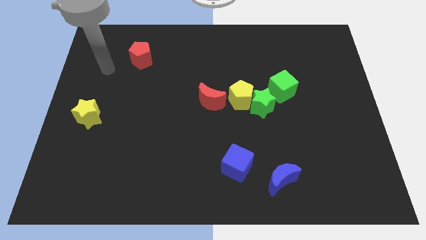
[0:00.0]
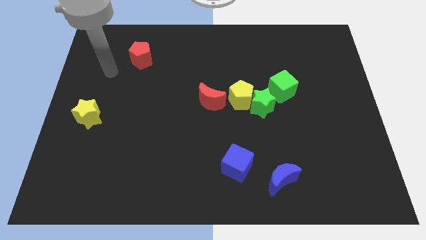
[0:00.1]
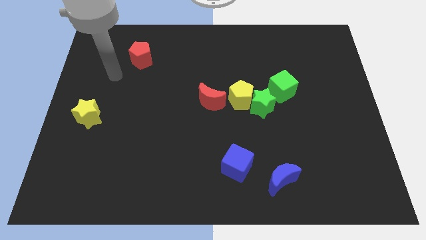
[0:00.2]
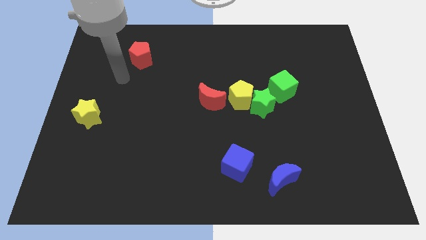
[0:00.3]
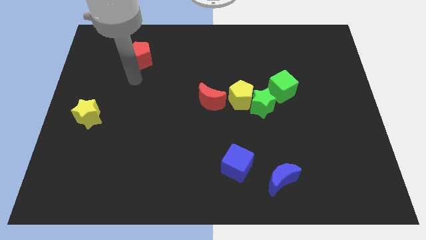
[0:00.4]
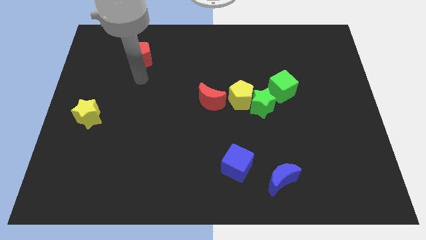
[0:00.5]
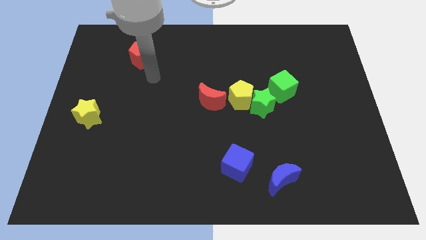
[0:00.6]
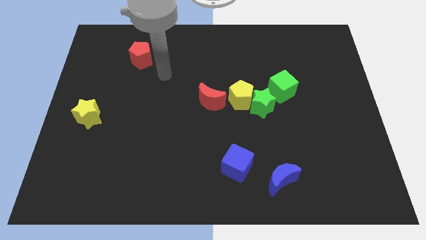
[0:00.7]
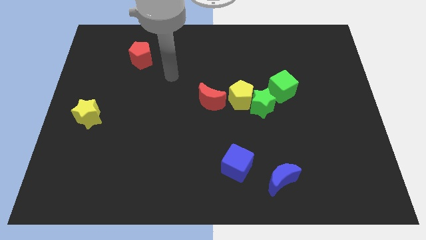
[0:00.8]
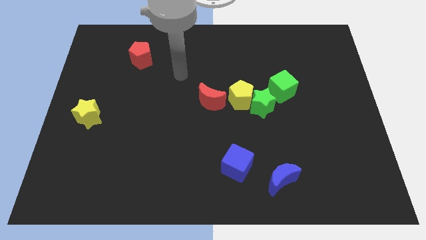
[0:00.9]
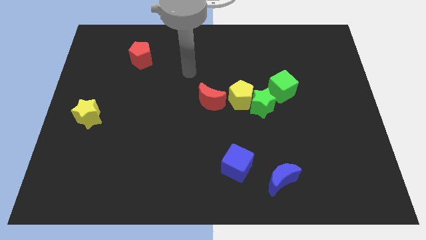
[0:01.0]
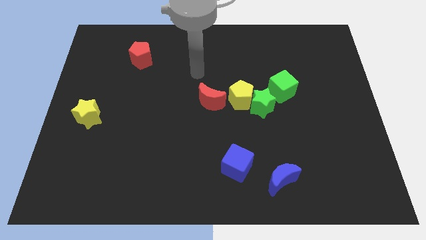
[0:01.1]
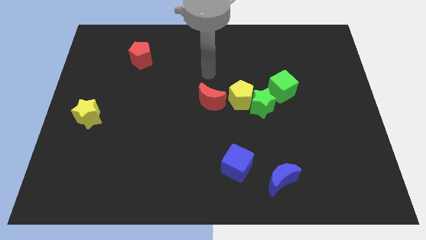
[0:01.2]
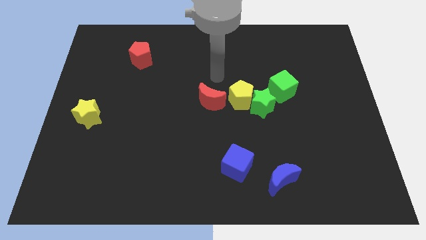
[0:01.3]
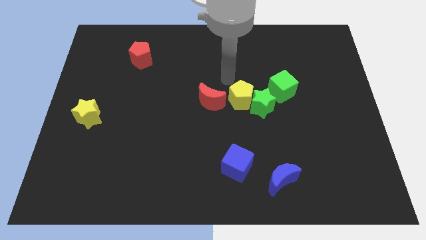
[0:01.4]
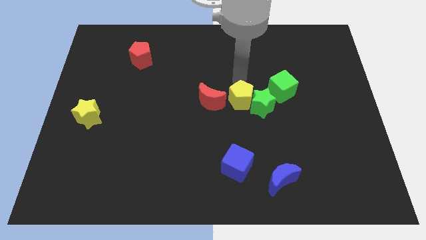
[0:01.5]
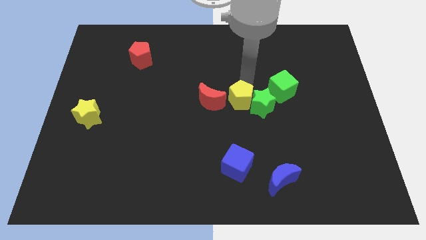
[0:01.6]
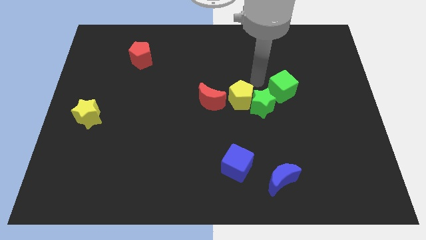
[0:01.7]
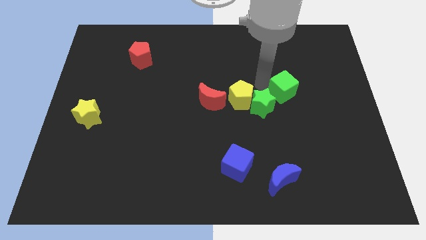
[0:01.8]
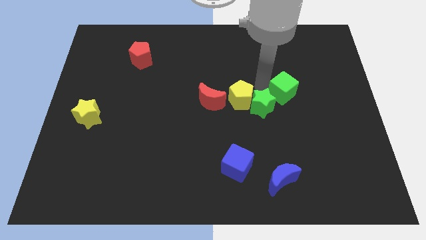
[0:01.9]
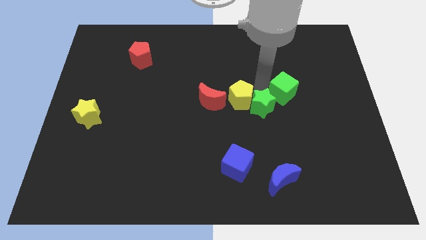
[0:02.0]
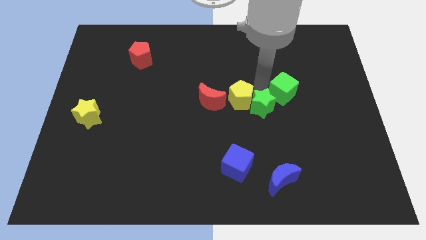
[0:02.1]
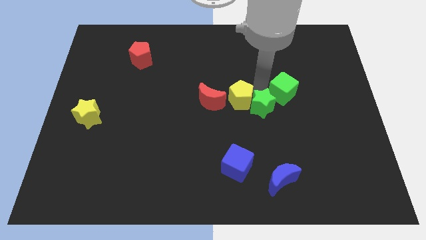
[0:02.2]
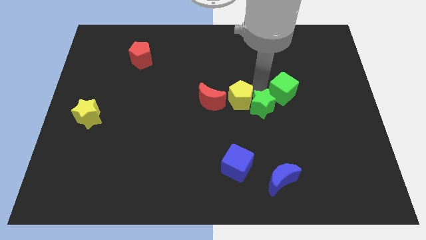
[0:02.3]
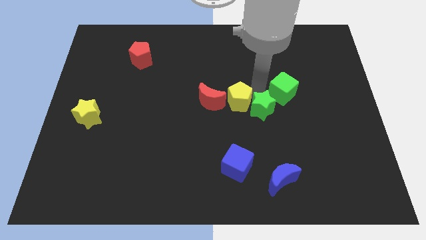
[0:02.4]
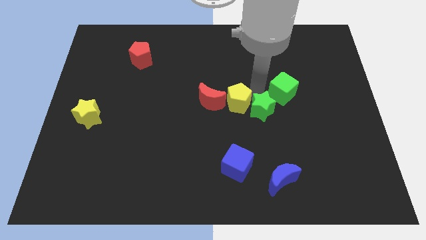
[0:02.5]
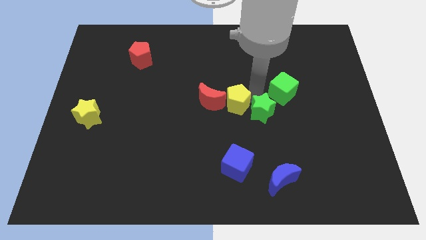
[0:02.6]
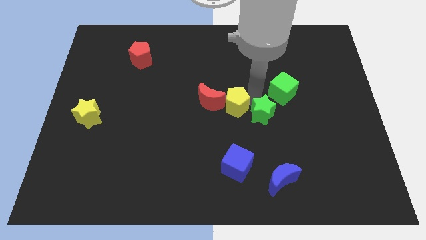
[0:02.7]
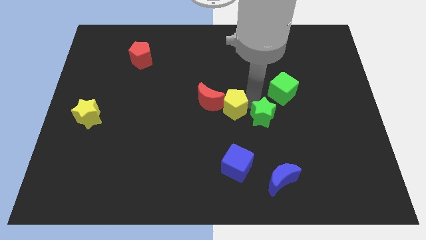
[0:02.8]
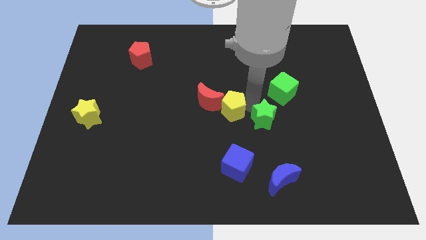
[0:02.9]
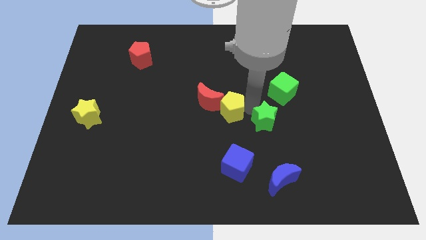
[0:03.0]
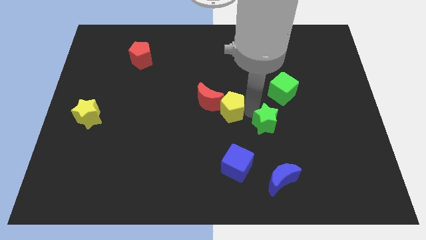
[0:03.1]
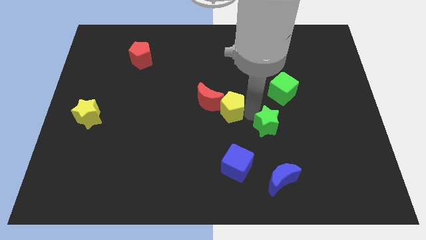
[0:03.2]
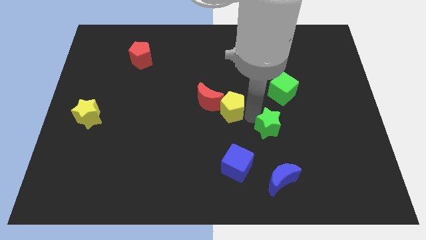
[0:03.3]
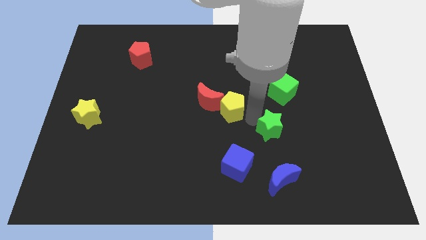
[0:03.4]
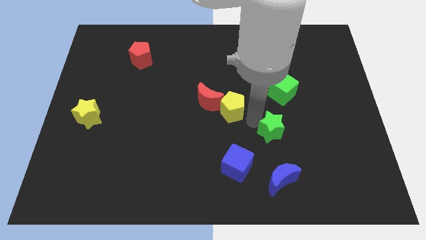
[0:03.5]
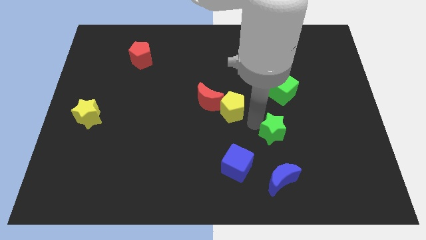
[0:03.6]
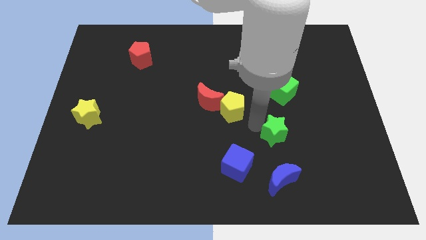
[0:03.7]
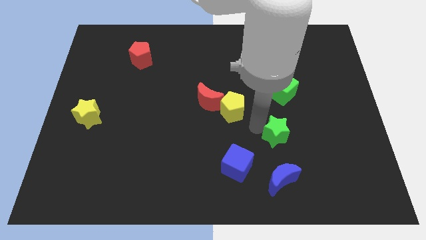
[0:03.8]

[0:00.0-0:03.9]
pull the green star apart from the yellow pentagon and green cube

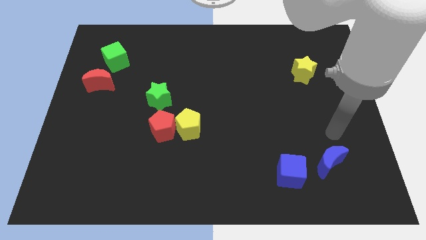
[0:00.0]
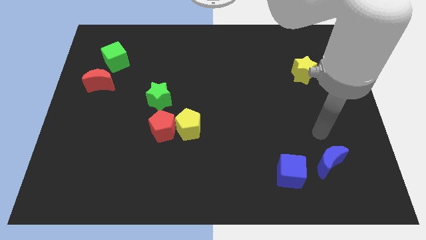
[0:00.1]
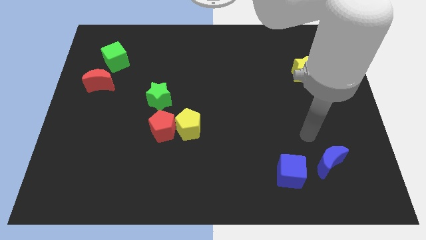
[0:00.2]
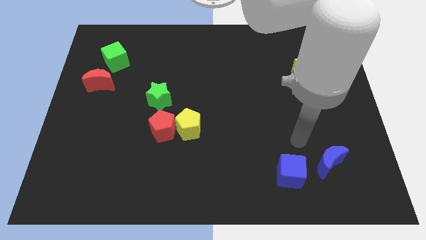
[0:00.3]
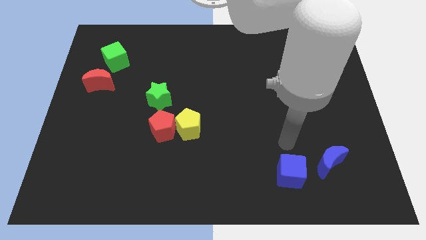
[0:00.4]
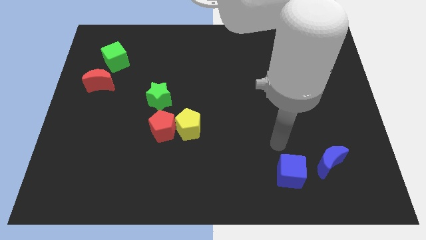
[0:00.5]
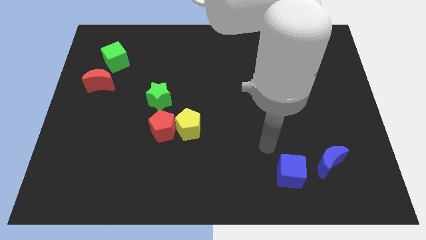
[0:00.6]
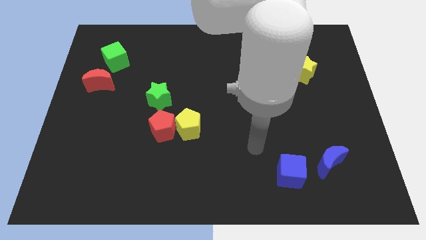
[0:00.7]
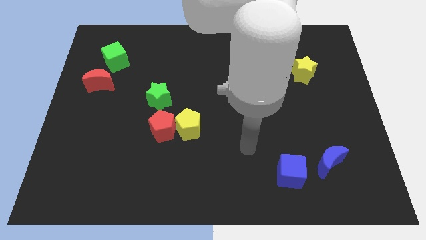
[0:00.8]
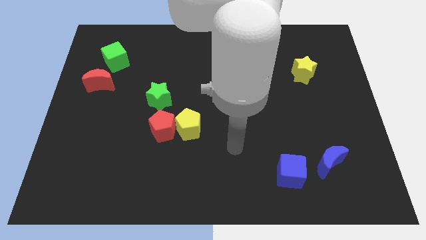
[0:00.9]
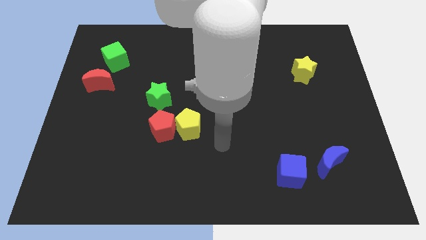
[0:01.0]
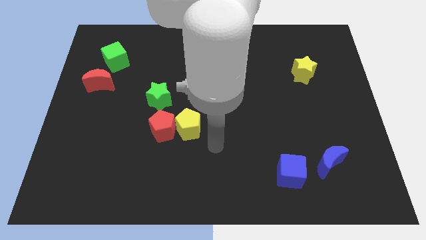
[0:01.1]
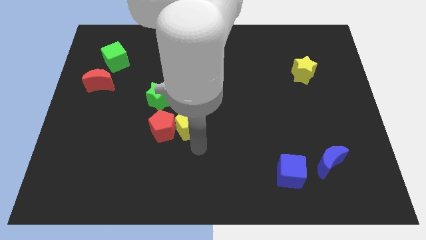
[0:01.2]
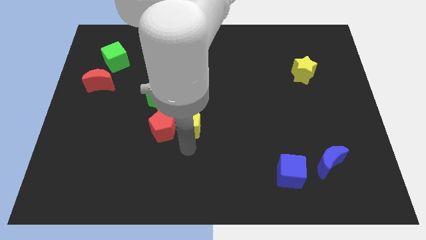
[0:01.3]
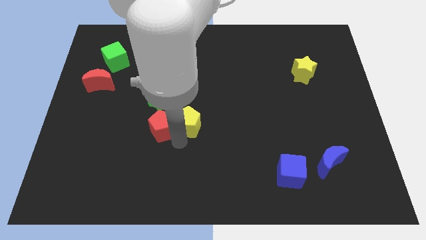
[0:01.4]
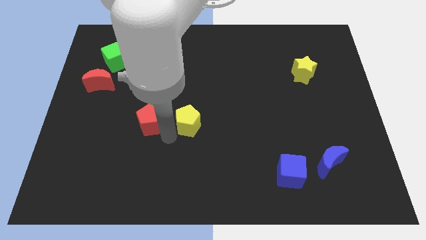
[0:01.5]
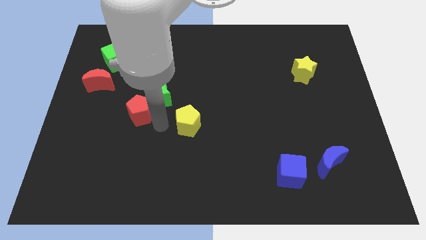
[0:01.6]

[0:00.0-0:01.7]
pull the yellow pentagon apart from the red pentagon

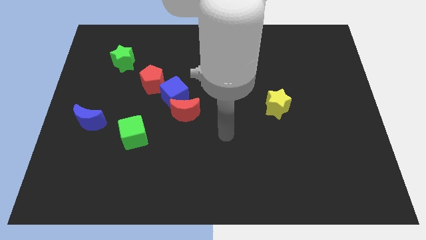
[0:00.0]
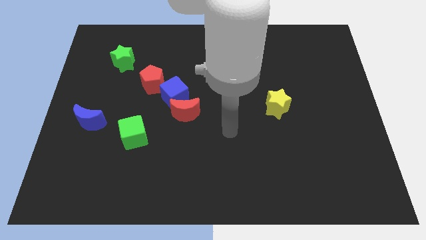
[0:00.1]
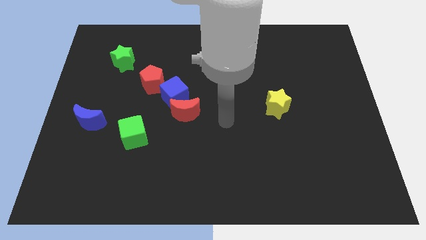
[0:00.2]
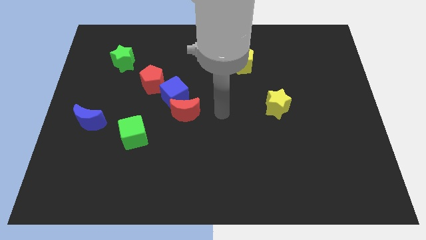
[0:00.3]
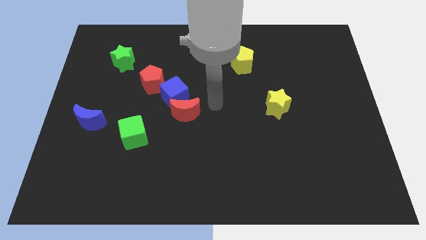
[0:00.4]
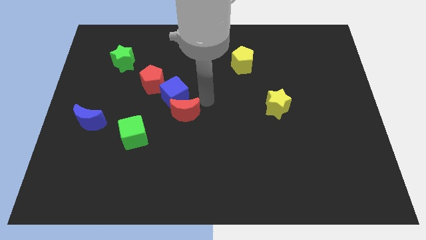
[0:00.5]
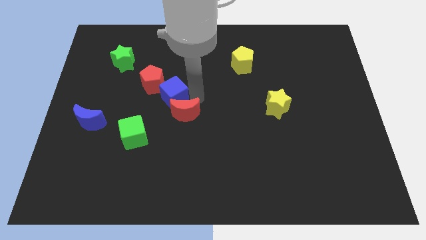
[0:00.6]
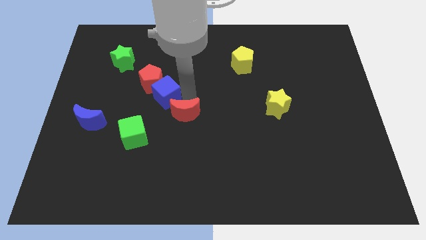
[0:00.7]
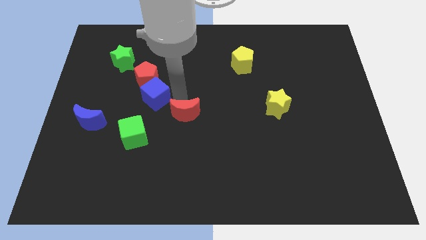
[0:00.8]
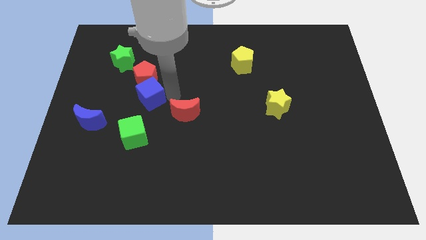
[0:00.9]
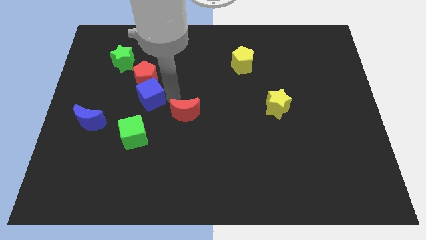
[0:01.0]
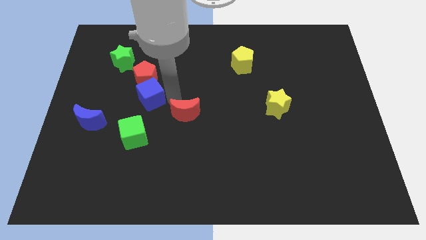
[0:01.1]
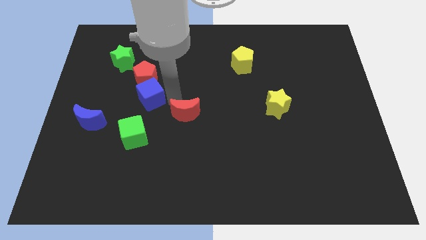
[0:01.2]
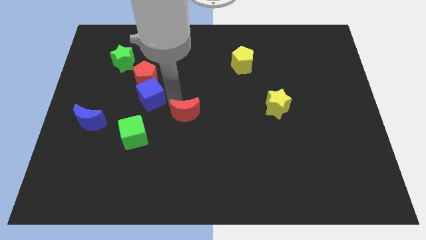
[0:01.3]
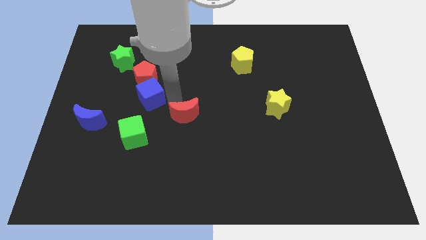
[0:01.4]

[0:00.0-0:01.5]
pull the red moon apart from the blue cube

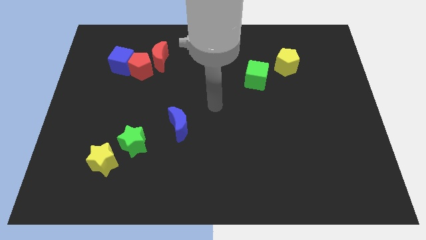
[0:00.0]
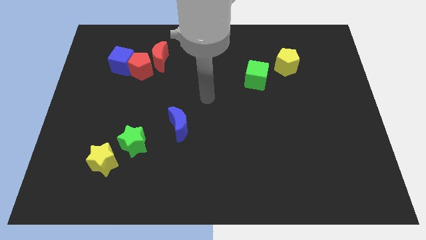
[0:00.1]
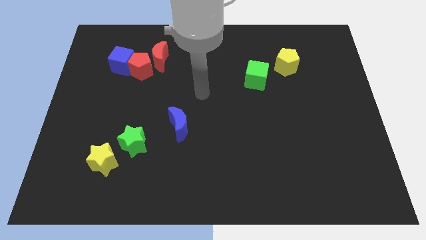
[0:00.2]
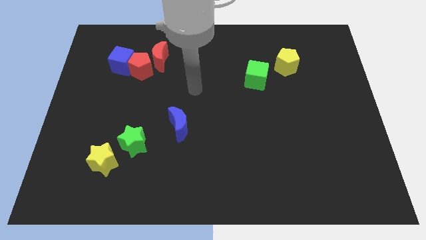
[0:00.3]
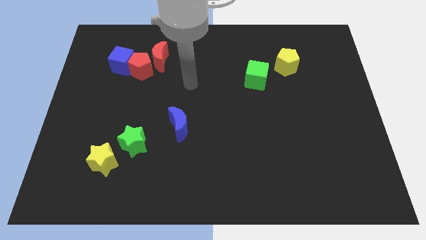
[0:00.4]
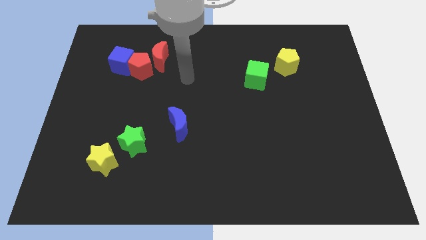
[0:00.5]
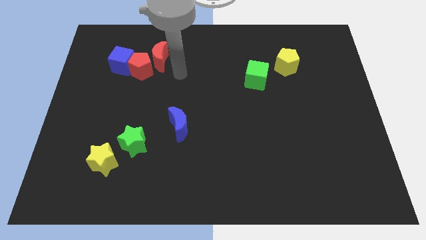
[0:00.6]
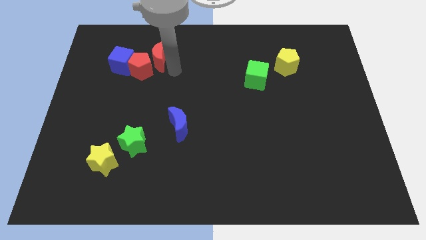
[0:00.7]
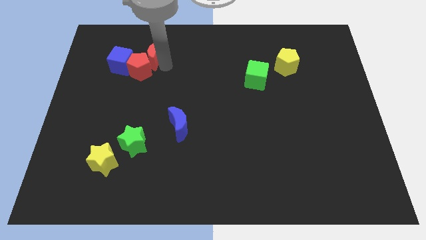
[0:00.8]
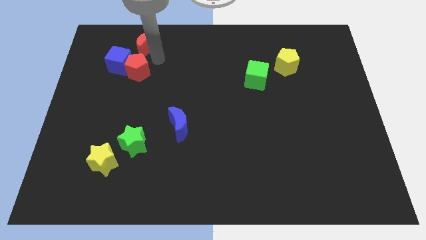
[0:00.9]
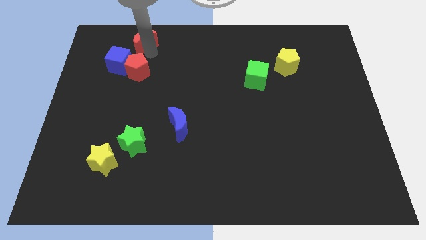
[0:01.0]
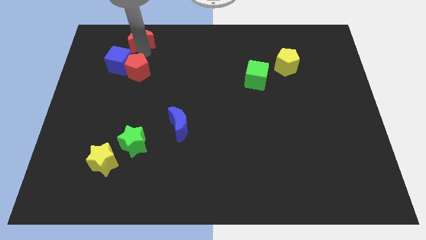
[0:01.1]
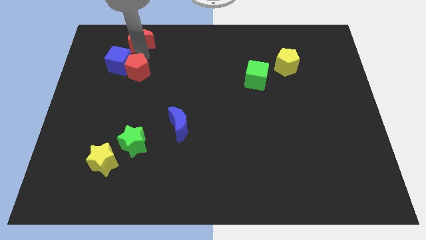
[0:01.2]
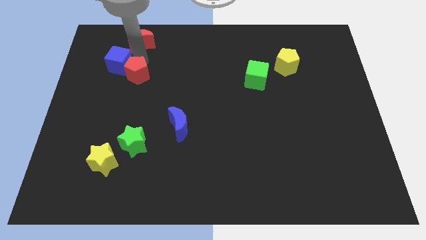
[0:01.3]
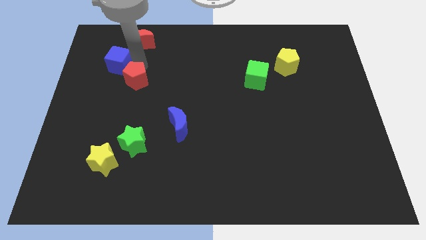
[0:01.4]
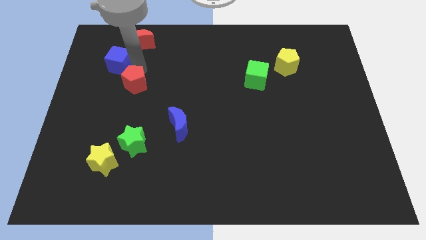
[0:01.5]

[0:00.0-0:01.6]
pull the red pentagon apart from the blue cube and red moon

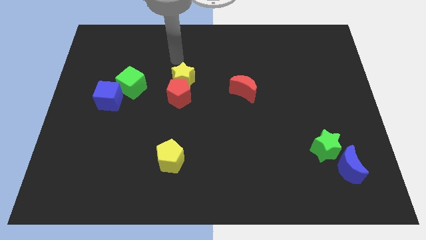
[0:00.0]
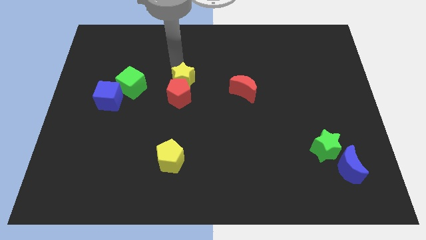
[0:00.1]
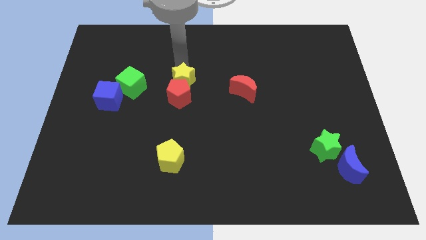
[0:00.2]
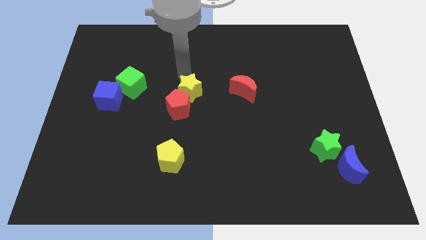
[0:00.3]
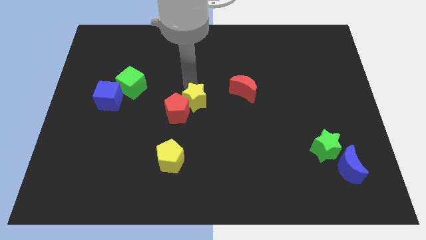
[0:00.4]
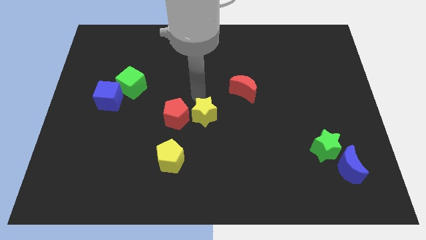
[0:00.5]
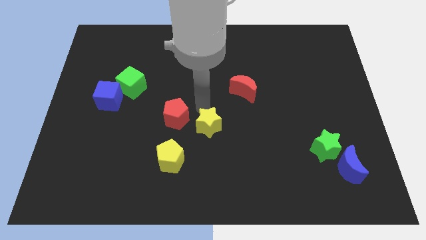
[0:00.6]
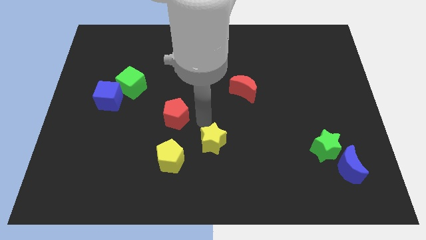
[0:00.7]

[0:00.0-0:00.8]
move the red pentagon away from the yellow star
